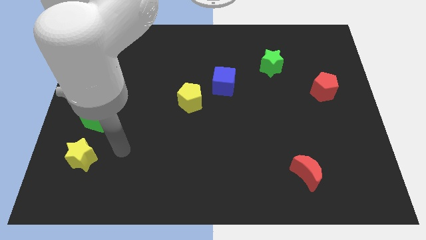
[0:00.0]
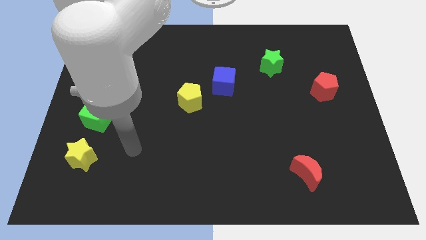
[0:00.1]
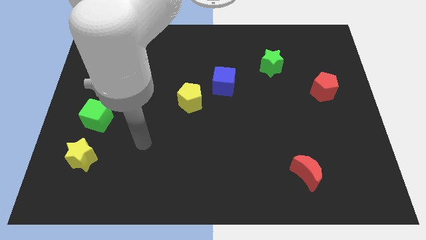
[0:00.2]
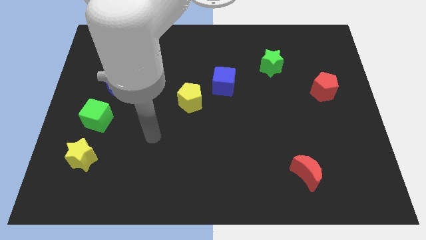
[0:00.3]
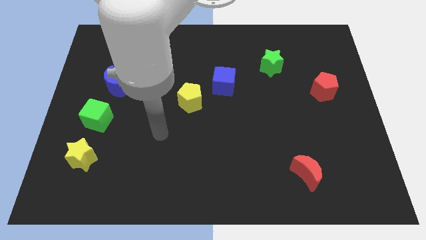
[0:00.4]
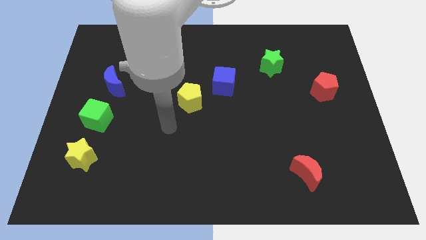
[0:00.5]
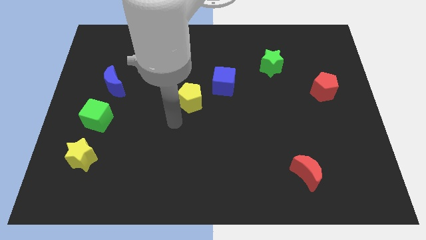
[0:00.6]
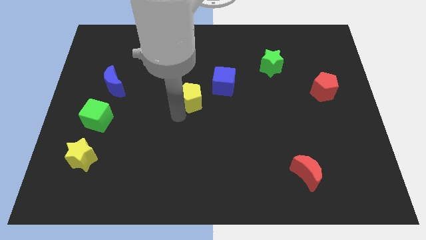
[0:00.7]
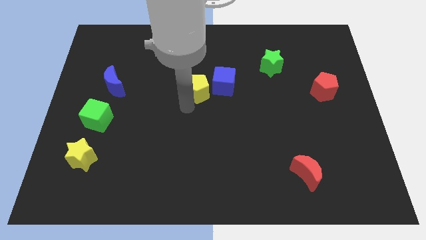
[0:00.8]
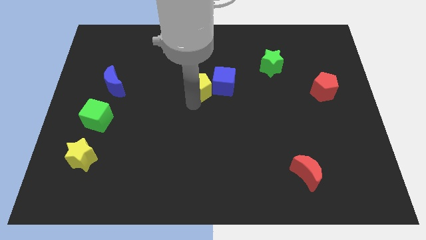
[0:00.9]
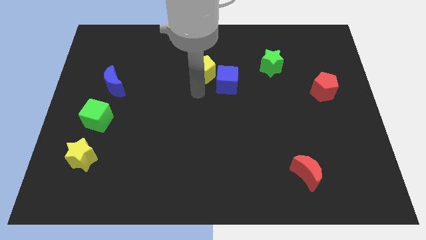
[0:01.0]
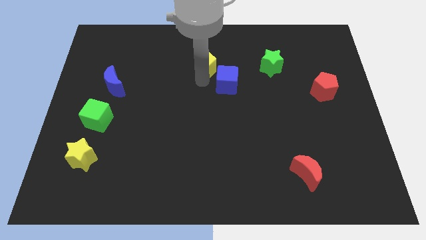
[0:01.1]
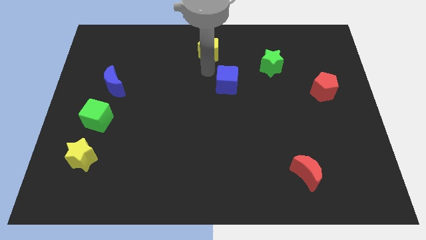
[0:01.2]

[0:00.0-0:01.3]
move the blue cube away from the yellow pentagon

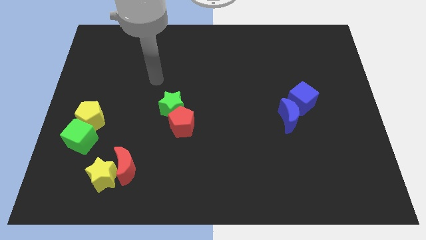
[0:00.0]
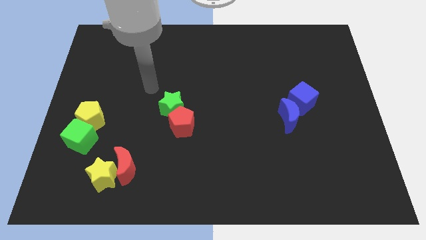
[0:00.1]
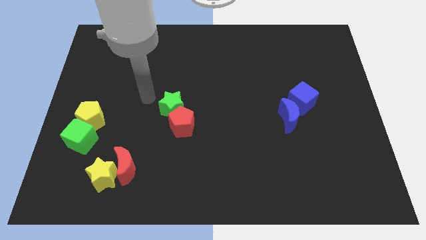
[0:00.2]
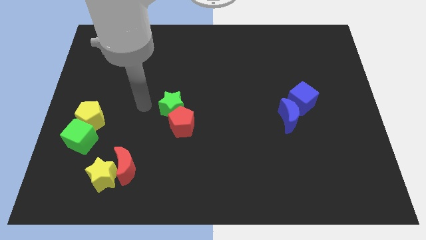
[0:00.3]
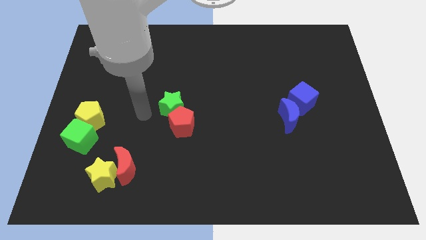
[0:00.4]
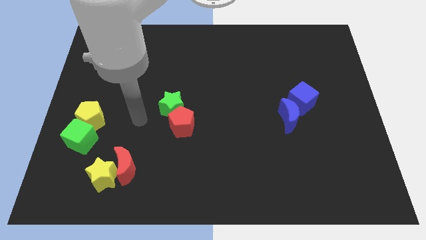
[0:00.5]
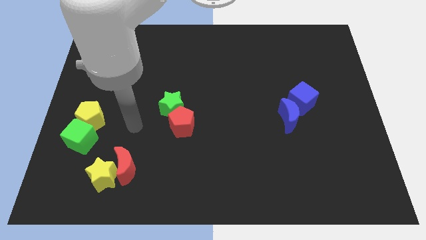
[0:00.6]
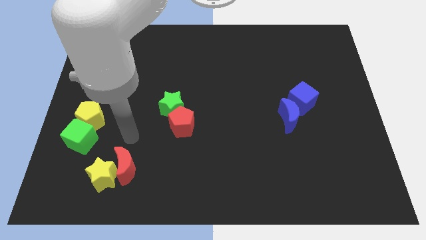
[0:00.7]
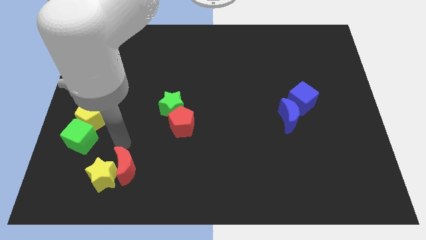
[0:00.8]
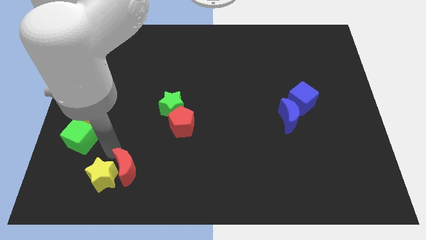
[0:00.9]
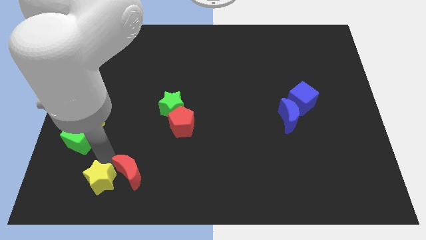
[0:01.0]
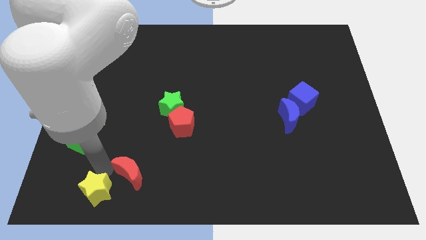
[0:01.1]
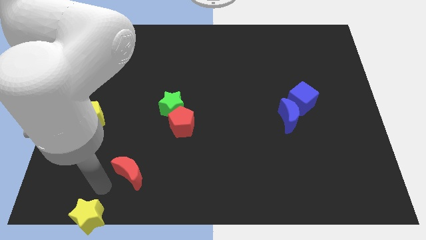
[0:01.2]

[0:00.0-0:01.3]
separate the red moon from the yellow star

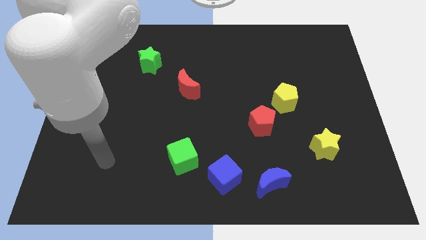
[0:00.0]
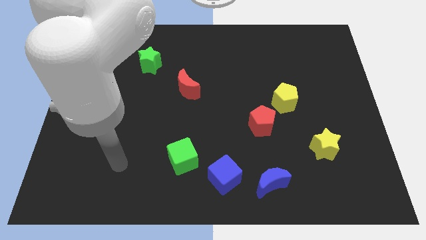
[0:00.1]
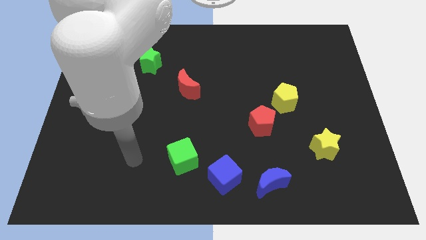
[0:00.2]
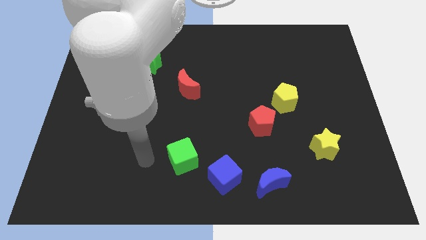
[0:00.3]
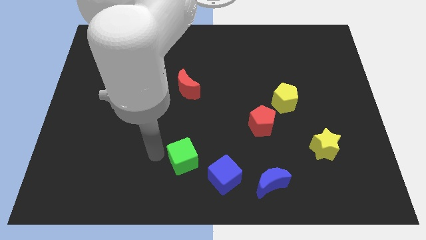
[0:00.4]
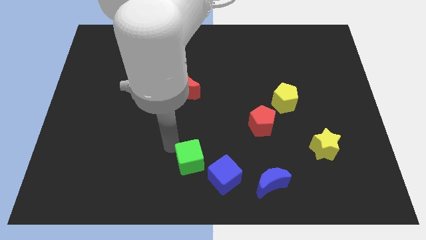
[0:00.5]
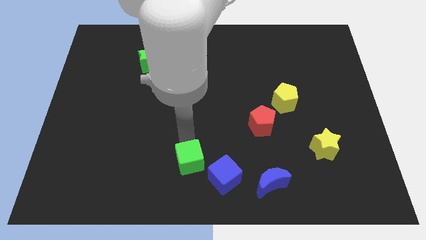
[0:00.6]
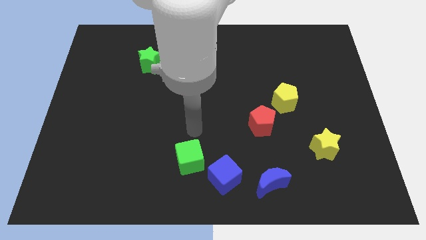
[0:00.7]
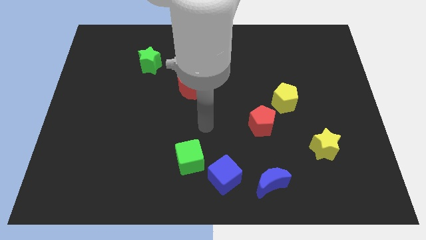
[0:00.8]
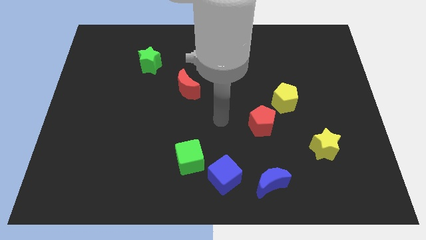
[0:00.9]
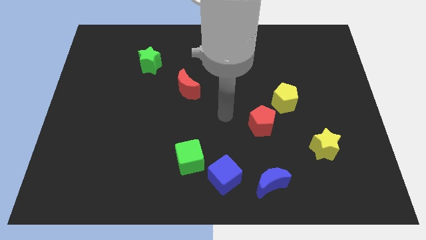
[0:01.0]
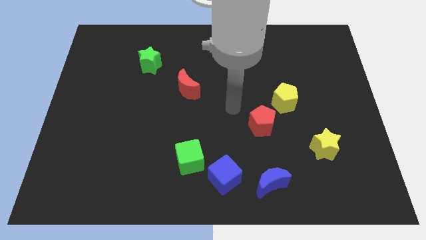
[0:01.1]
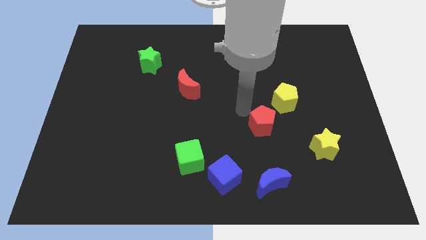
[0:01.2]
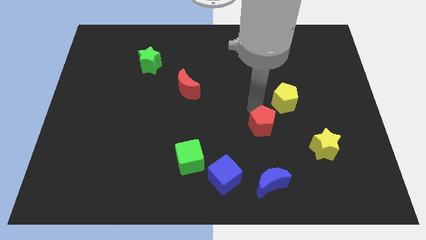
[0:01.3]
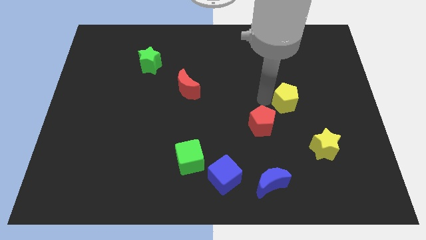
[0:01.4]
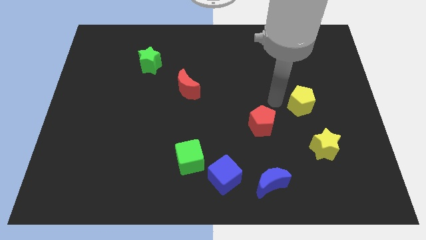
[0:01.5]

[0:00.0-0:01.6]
pull the red pentagon apart from the yellow pentagon

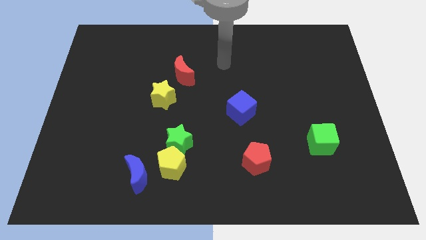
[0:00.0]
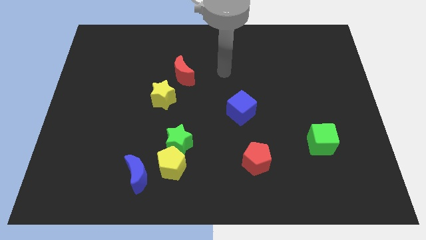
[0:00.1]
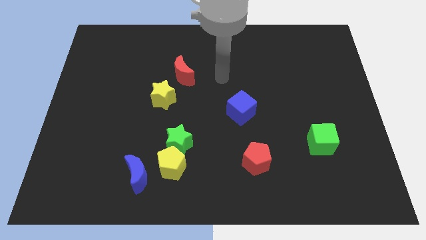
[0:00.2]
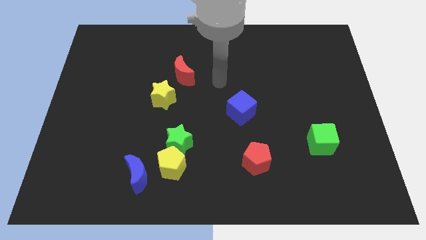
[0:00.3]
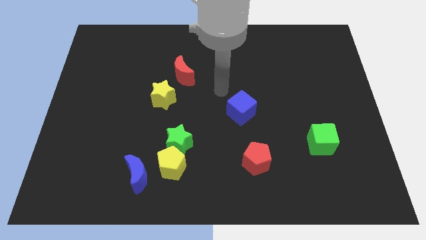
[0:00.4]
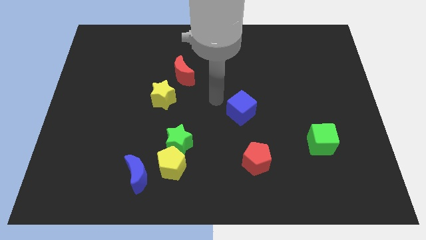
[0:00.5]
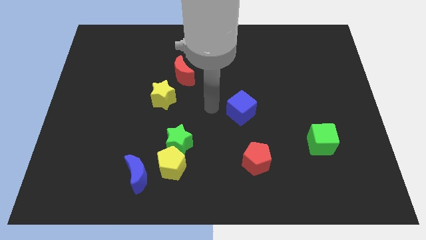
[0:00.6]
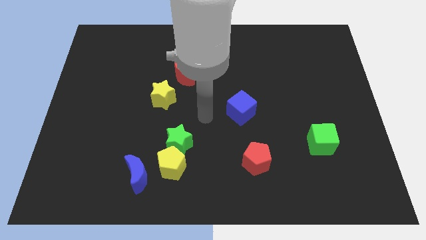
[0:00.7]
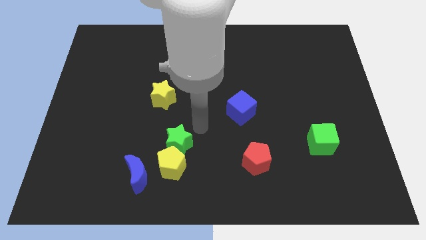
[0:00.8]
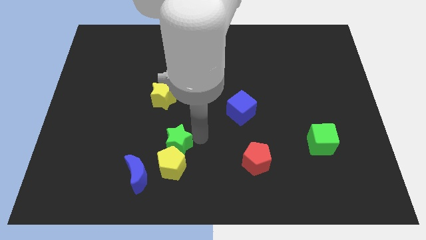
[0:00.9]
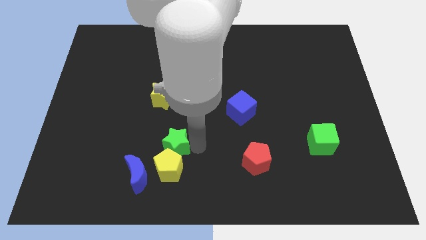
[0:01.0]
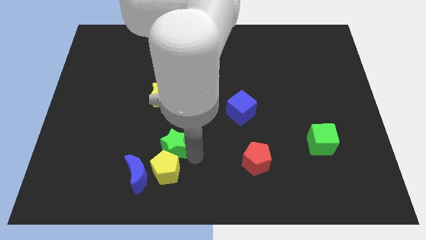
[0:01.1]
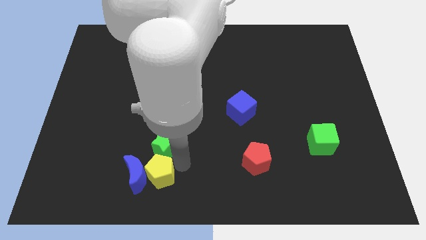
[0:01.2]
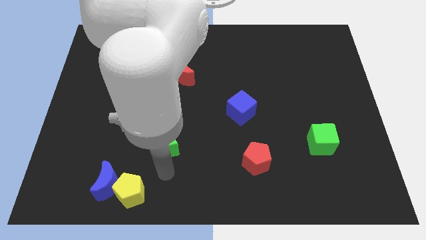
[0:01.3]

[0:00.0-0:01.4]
separate the green star from the yellow pentagon

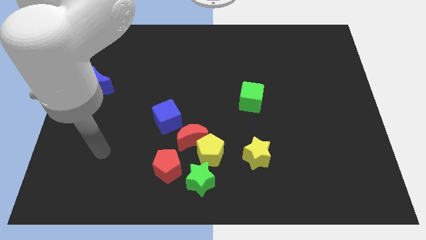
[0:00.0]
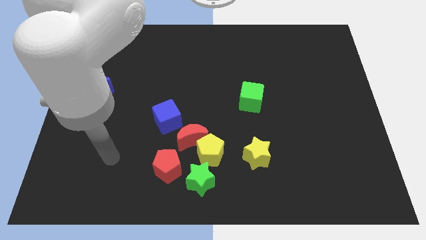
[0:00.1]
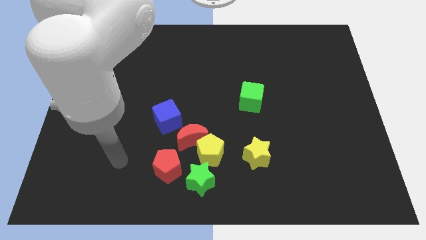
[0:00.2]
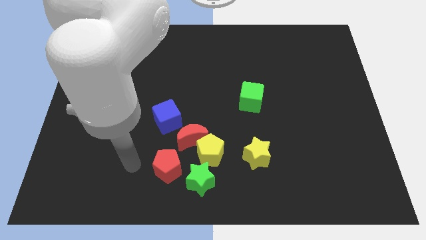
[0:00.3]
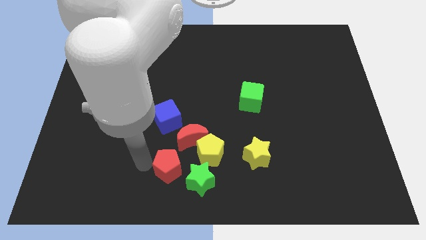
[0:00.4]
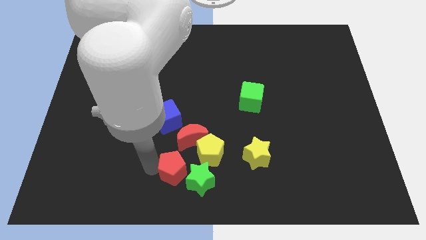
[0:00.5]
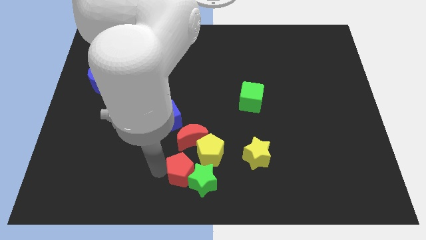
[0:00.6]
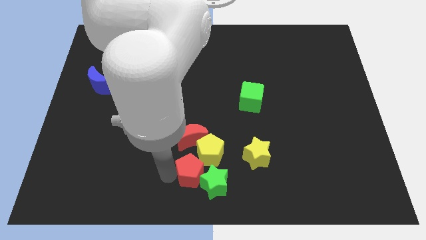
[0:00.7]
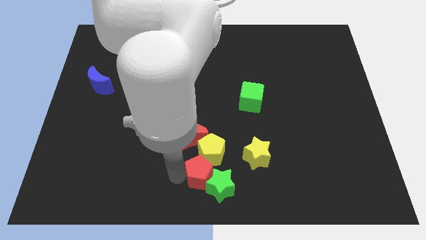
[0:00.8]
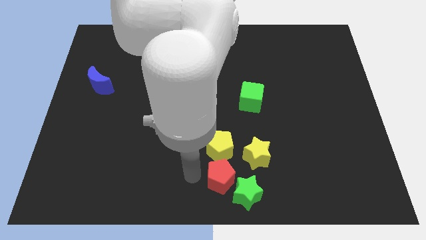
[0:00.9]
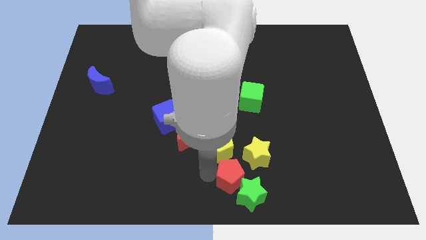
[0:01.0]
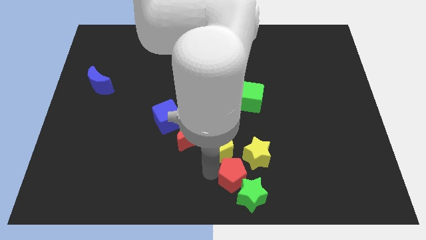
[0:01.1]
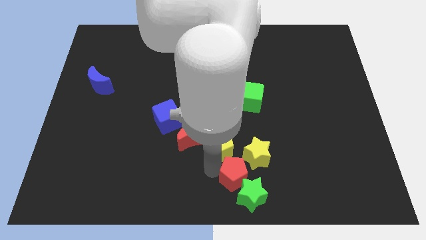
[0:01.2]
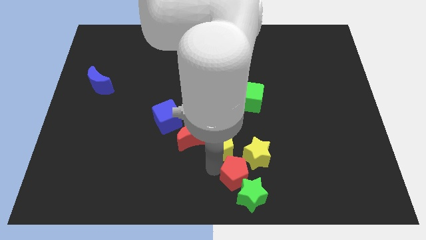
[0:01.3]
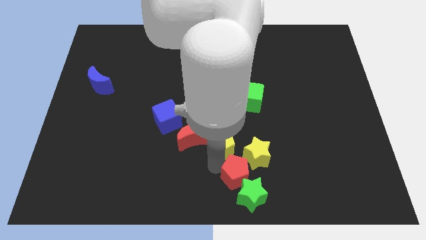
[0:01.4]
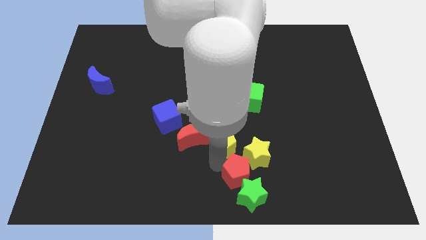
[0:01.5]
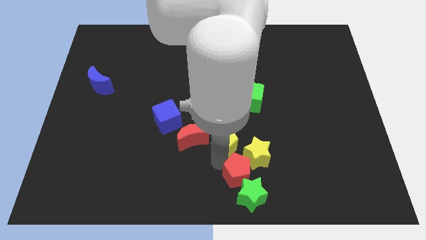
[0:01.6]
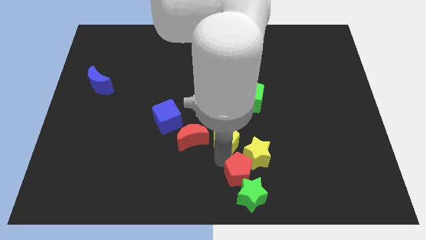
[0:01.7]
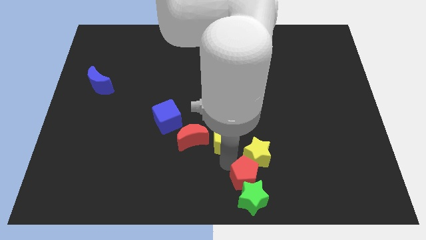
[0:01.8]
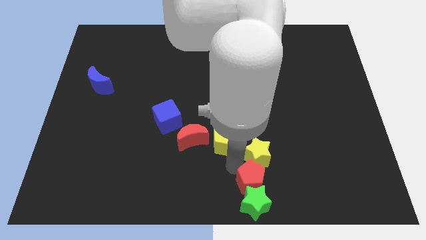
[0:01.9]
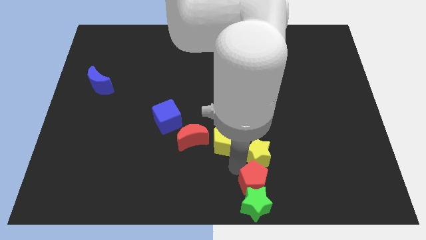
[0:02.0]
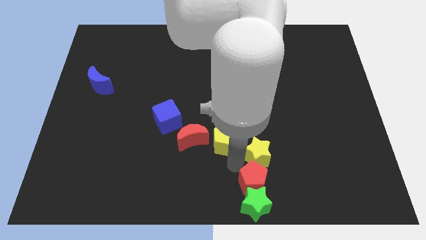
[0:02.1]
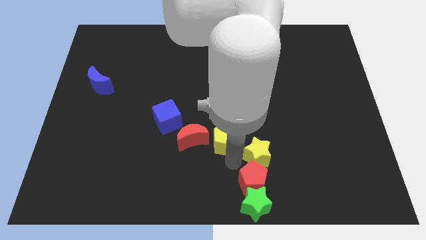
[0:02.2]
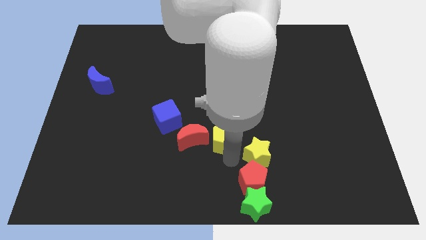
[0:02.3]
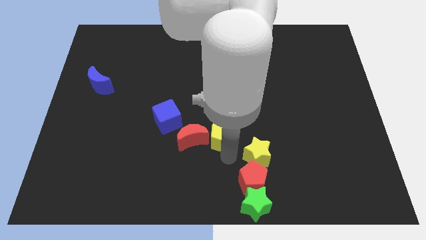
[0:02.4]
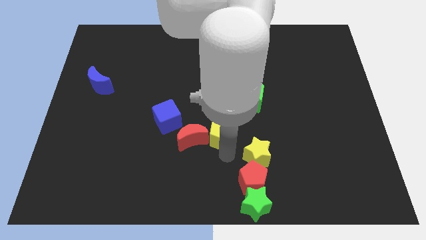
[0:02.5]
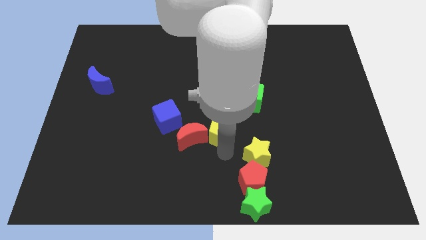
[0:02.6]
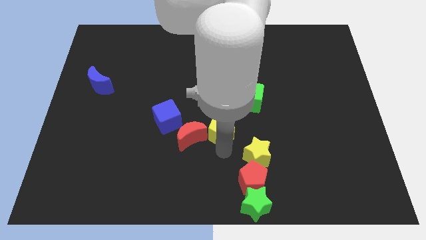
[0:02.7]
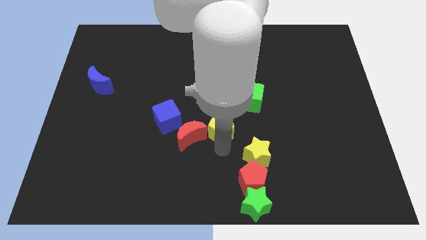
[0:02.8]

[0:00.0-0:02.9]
separate the yellow pentagon from the group of blocks

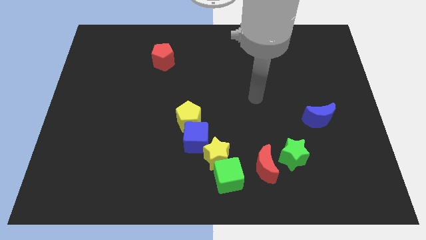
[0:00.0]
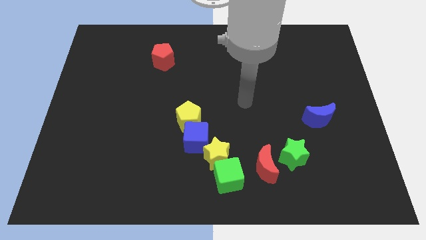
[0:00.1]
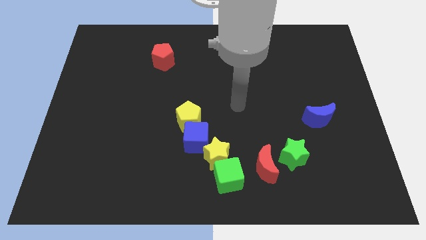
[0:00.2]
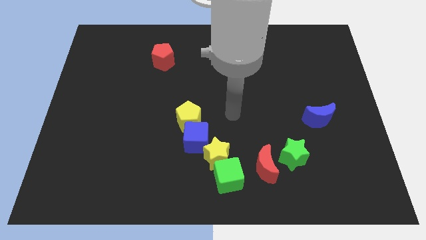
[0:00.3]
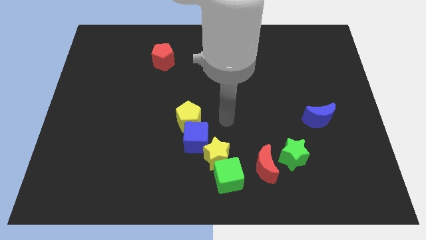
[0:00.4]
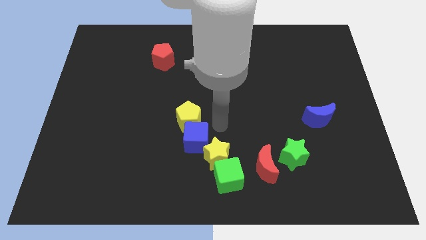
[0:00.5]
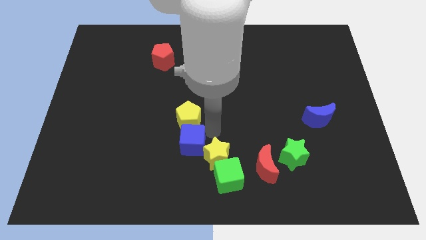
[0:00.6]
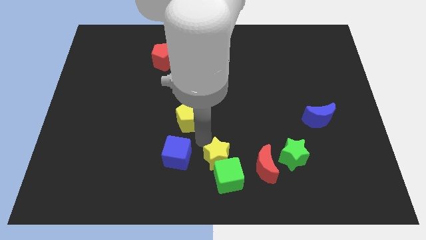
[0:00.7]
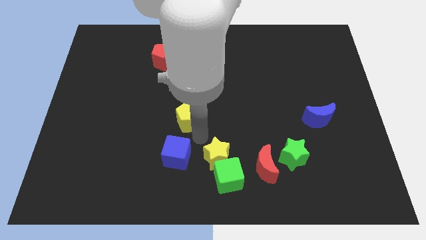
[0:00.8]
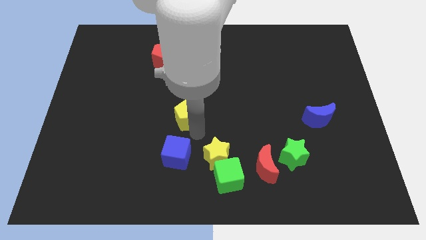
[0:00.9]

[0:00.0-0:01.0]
pull the yellow pentagon apart from the blue cube
